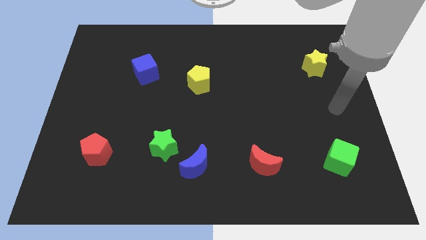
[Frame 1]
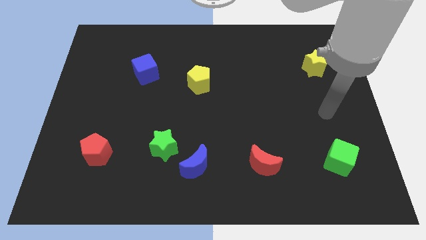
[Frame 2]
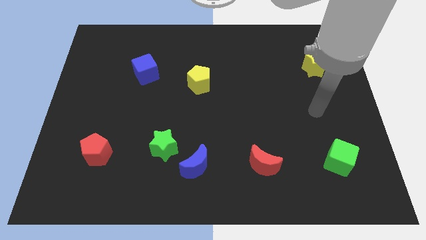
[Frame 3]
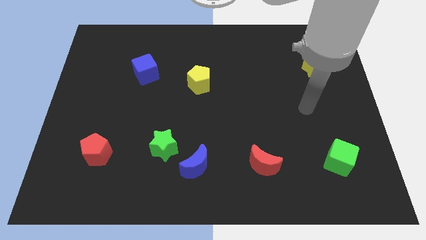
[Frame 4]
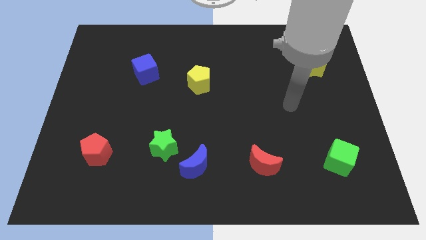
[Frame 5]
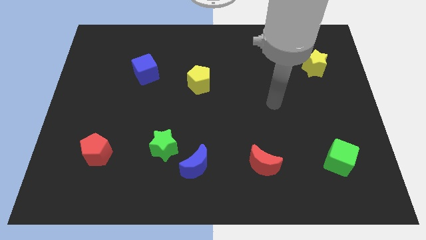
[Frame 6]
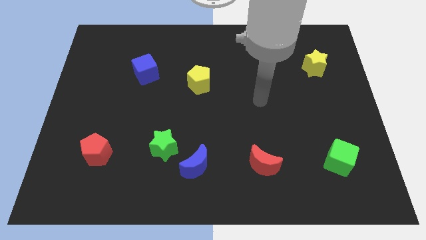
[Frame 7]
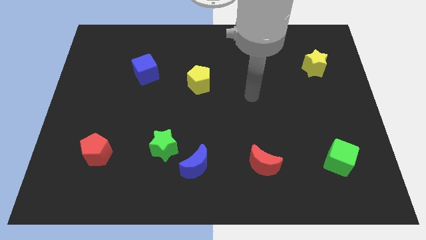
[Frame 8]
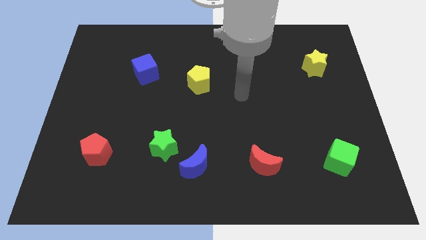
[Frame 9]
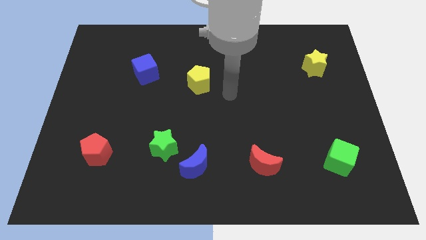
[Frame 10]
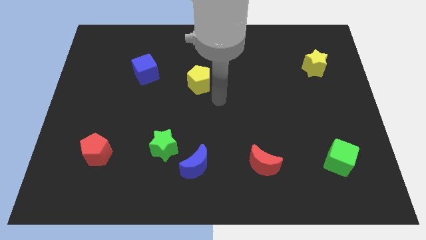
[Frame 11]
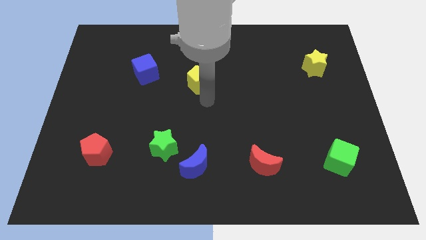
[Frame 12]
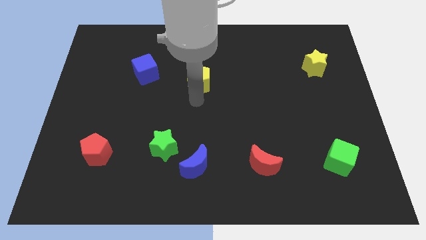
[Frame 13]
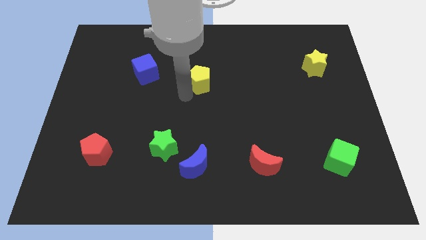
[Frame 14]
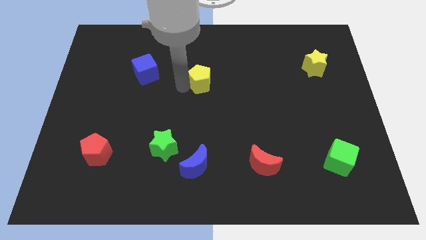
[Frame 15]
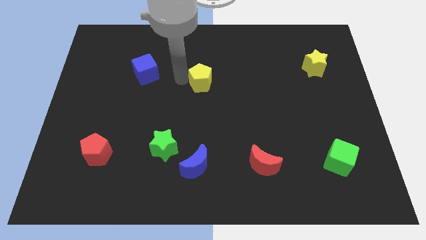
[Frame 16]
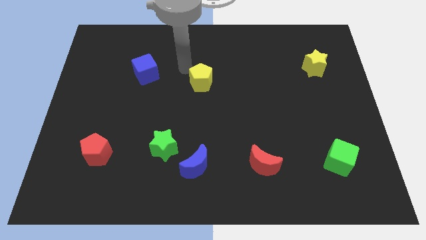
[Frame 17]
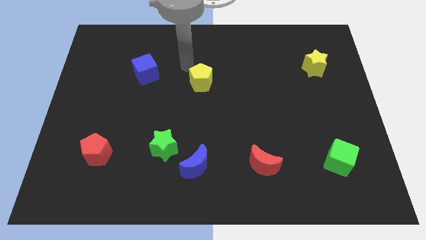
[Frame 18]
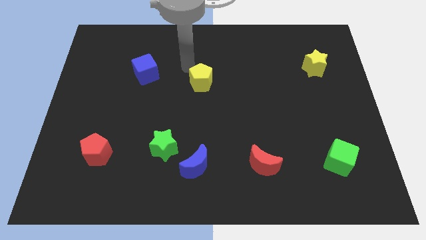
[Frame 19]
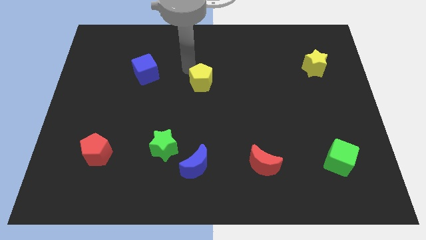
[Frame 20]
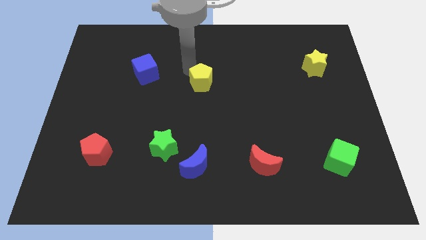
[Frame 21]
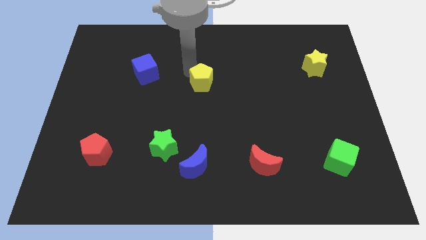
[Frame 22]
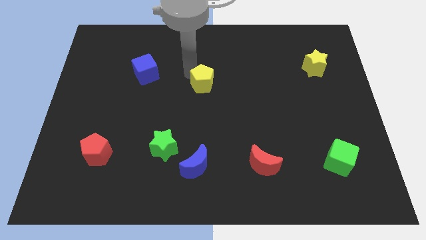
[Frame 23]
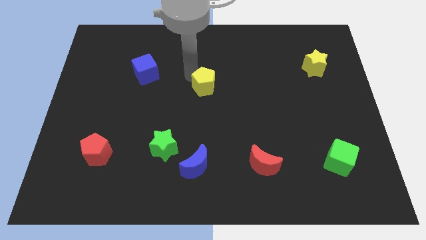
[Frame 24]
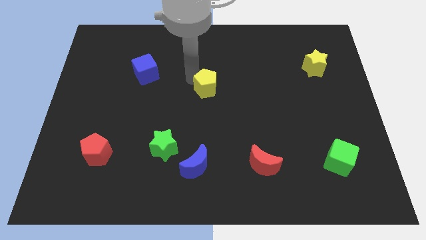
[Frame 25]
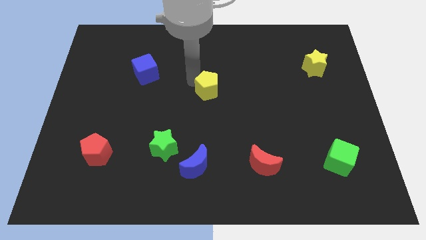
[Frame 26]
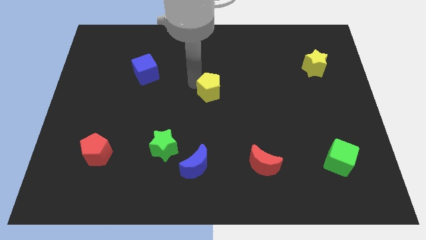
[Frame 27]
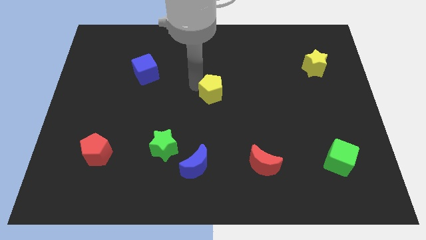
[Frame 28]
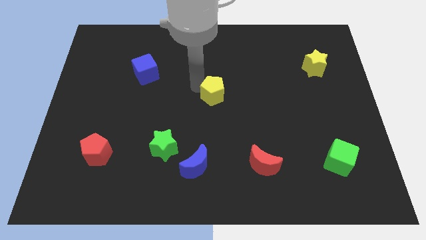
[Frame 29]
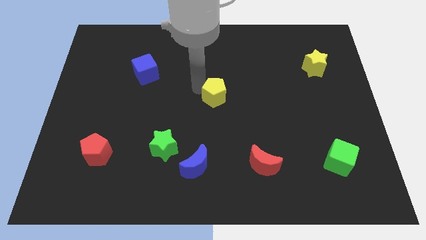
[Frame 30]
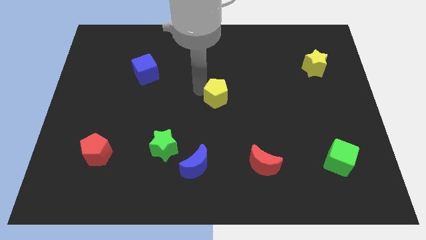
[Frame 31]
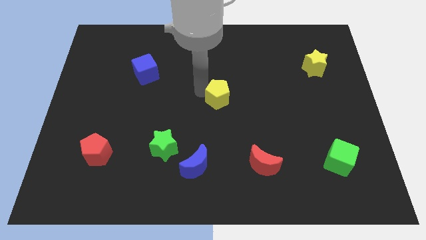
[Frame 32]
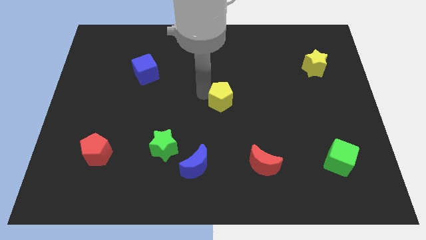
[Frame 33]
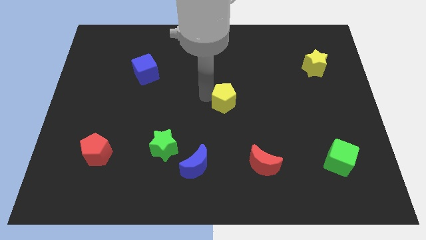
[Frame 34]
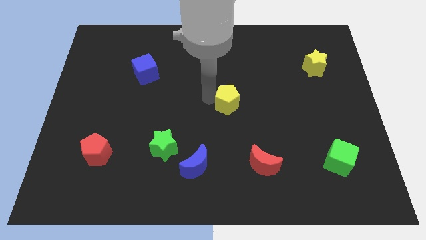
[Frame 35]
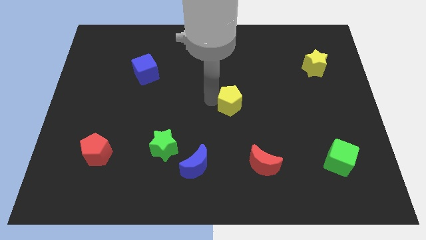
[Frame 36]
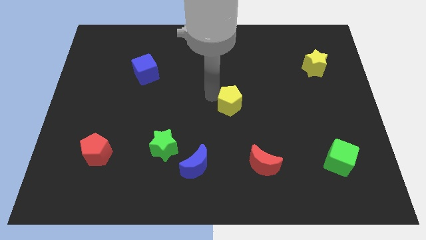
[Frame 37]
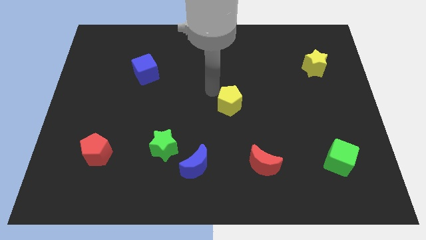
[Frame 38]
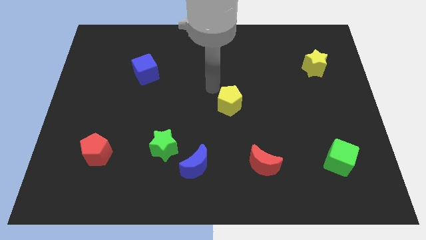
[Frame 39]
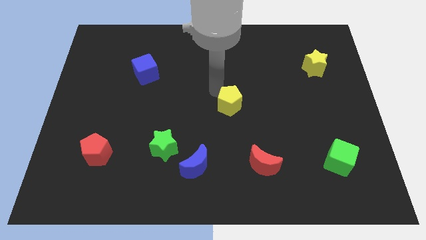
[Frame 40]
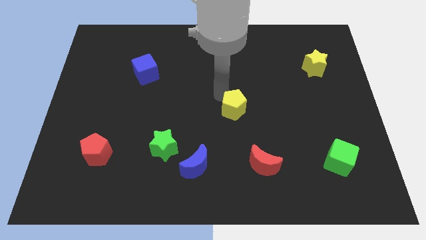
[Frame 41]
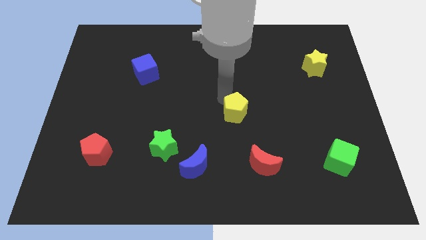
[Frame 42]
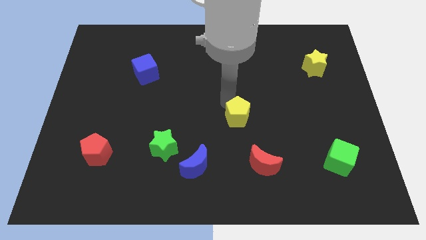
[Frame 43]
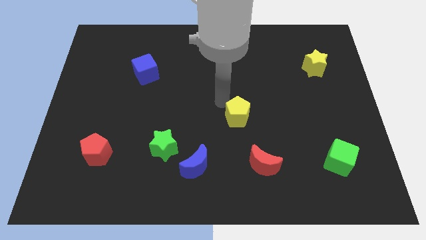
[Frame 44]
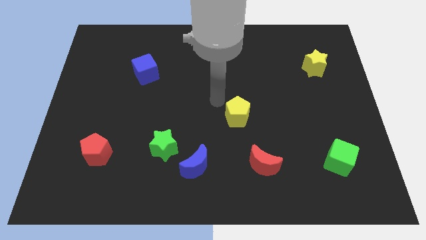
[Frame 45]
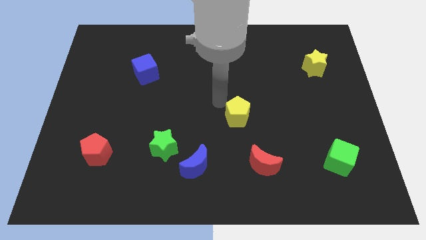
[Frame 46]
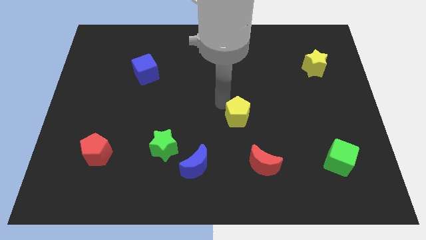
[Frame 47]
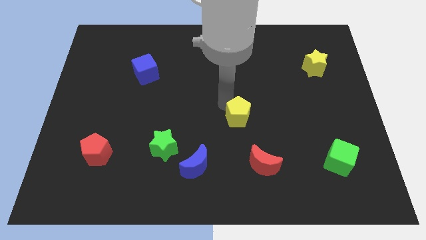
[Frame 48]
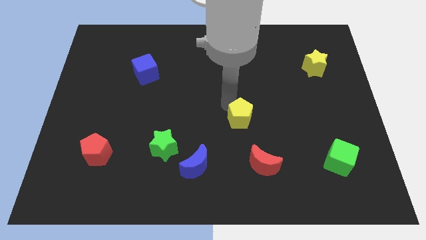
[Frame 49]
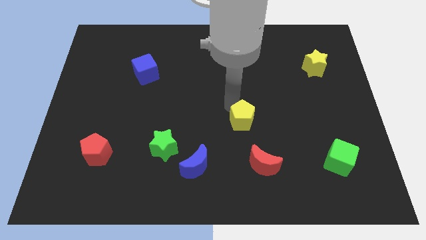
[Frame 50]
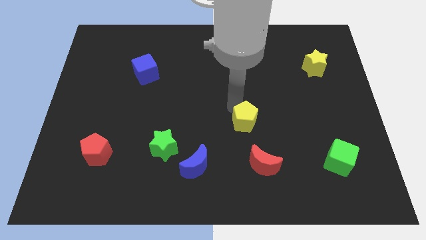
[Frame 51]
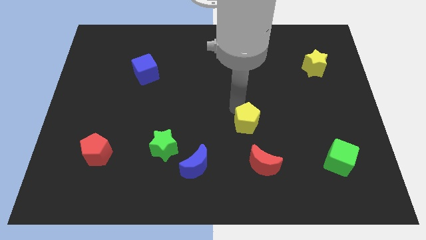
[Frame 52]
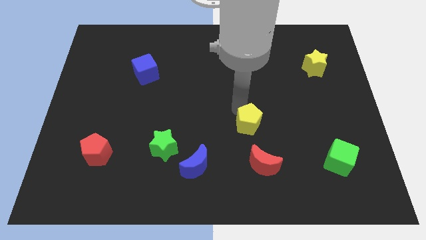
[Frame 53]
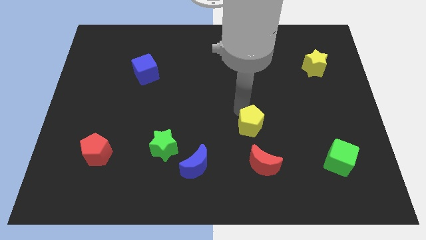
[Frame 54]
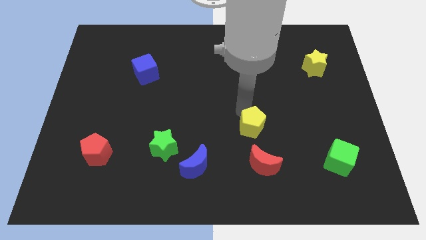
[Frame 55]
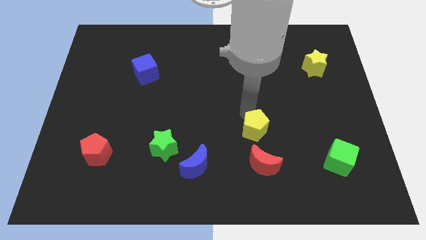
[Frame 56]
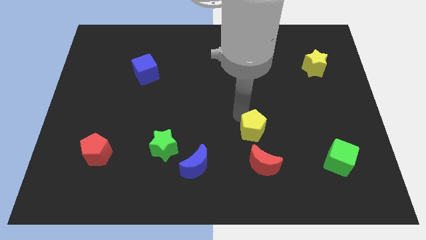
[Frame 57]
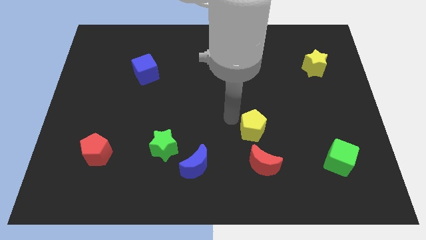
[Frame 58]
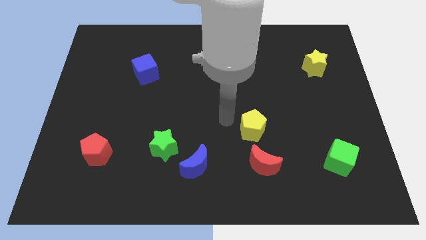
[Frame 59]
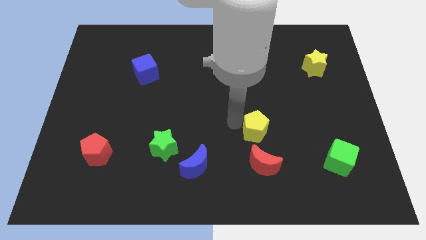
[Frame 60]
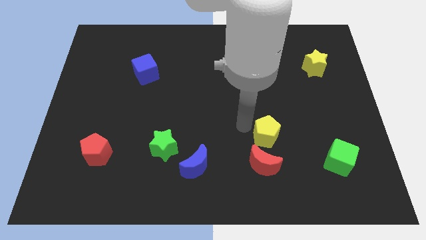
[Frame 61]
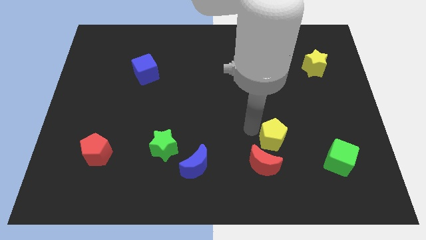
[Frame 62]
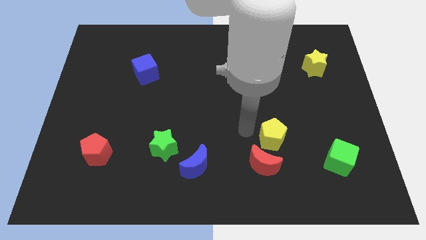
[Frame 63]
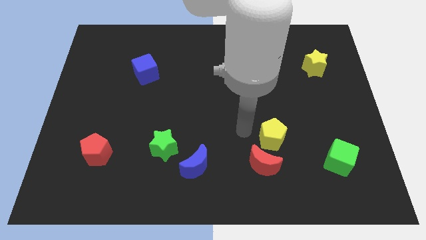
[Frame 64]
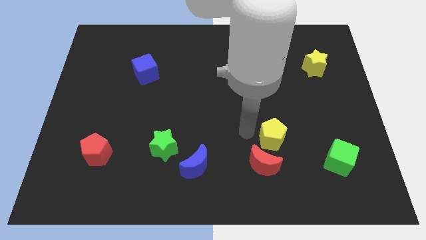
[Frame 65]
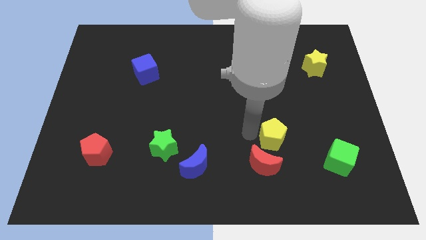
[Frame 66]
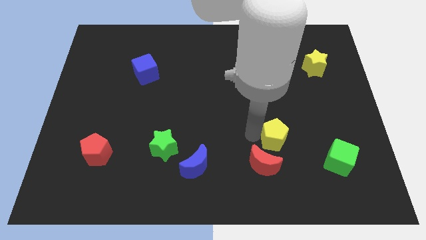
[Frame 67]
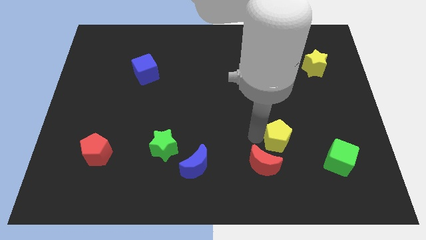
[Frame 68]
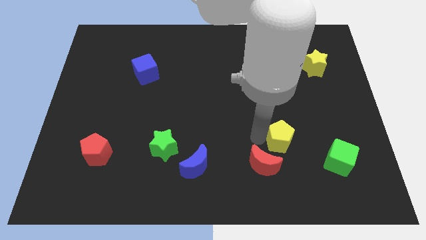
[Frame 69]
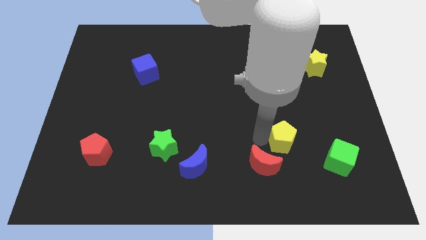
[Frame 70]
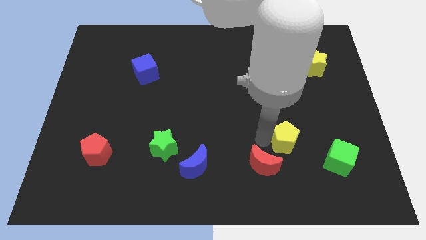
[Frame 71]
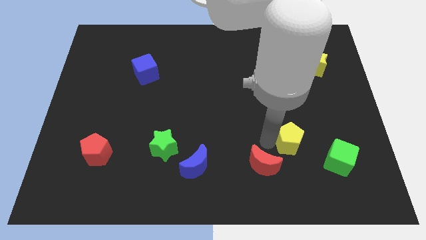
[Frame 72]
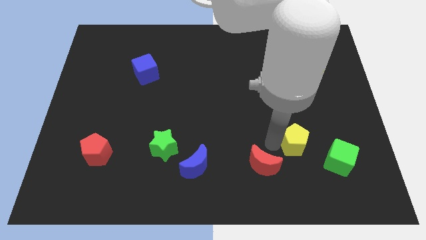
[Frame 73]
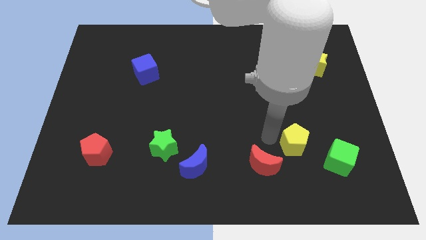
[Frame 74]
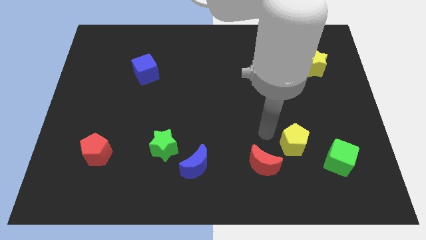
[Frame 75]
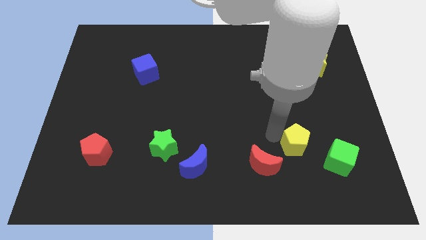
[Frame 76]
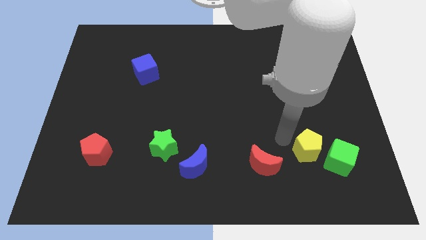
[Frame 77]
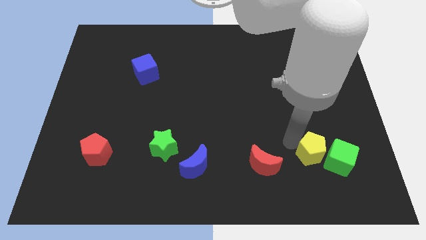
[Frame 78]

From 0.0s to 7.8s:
slide the yellow pentagon close to the green cube

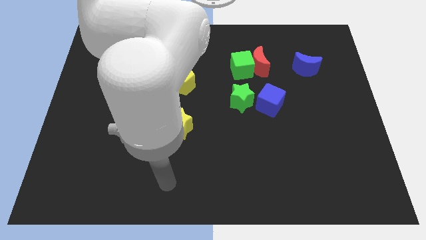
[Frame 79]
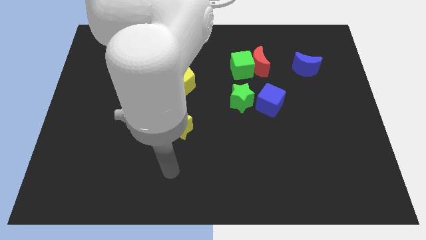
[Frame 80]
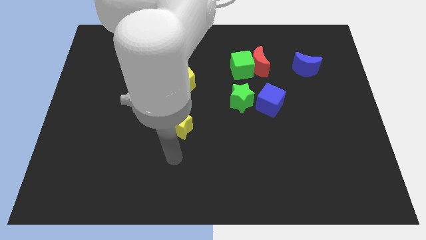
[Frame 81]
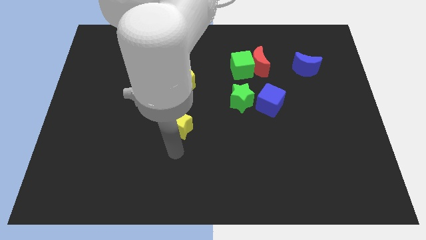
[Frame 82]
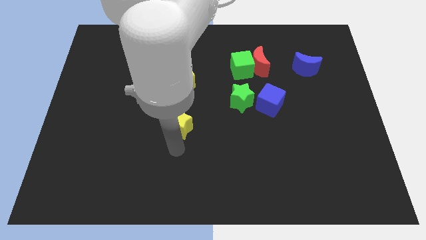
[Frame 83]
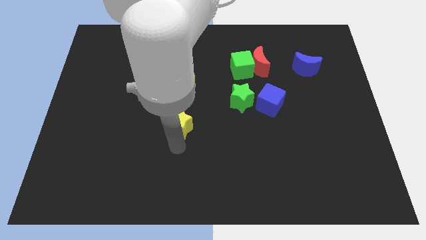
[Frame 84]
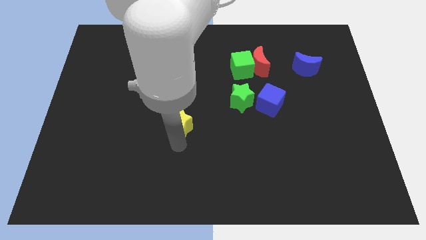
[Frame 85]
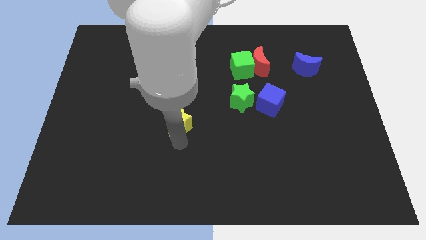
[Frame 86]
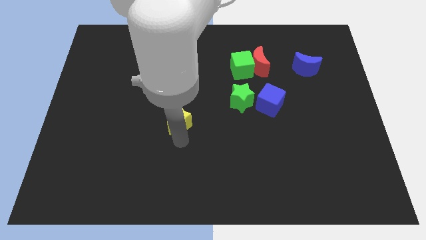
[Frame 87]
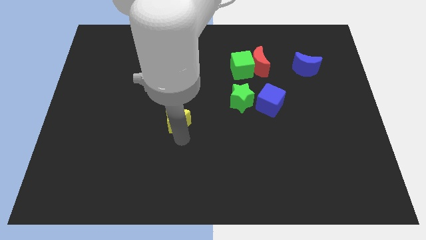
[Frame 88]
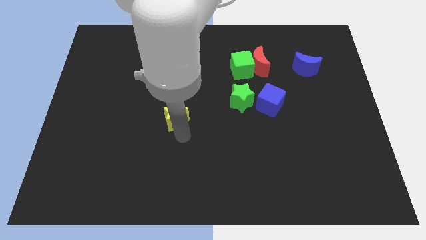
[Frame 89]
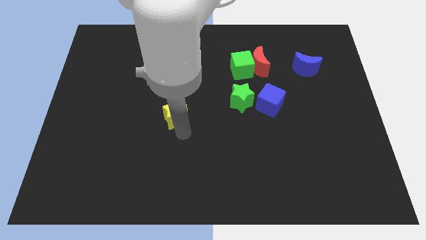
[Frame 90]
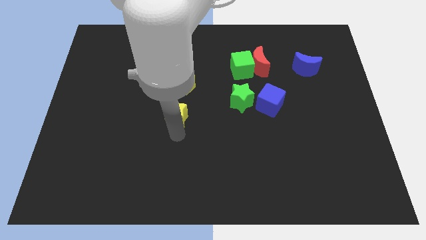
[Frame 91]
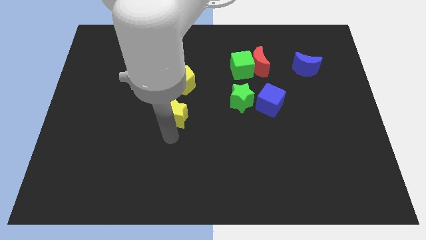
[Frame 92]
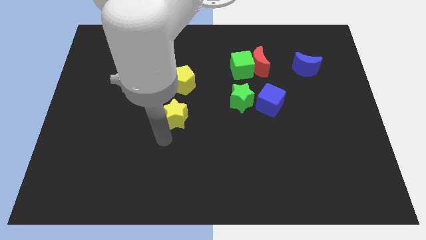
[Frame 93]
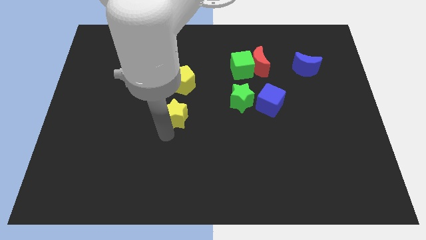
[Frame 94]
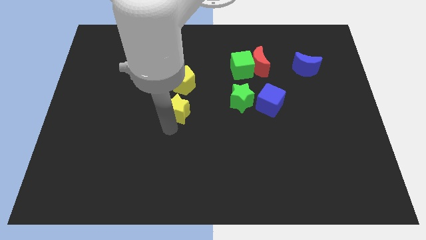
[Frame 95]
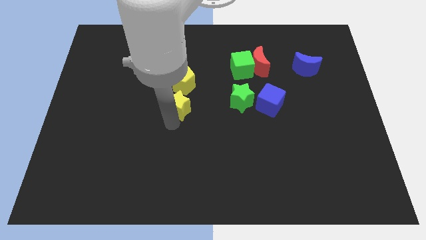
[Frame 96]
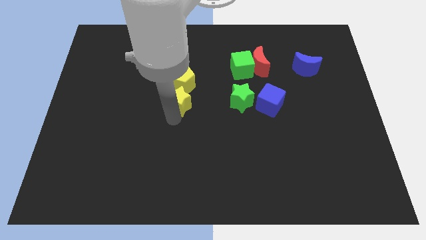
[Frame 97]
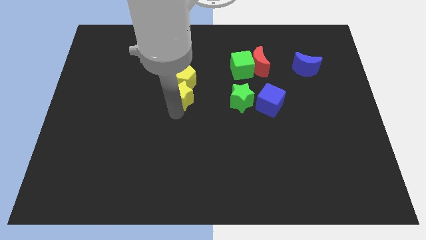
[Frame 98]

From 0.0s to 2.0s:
slide the yellow star next to the yellow pentagon
